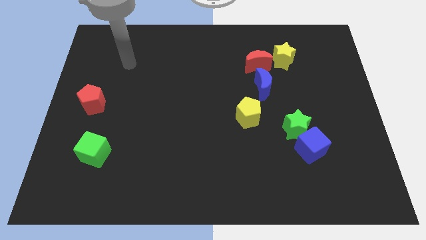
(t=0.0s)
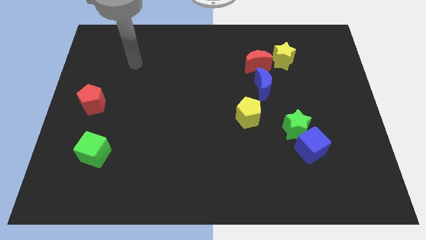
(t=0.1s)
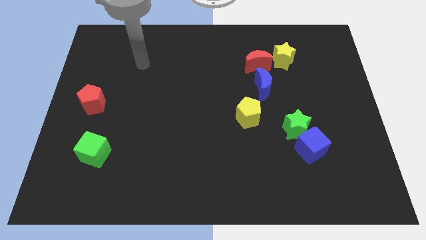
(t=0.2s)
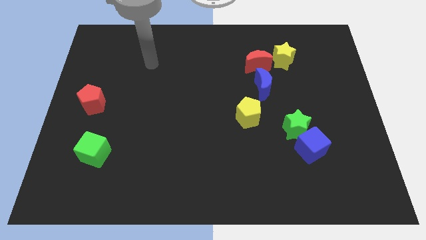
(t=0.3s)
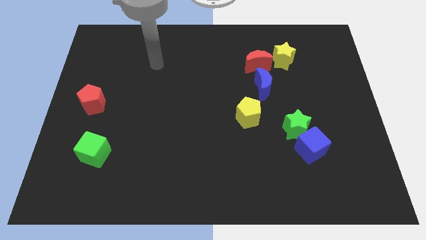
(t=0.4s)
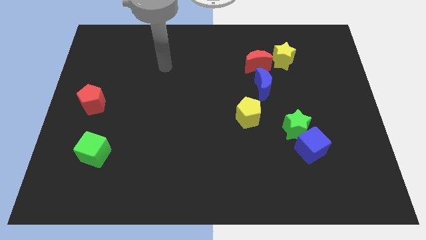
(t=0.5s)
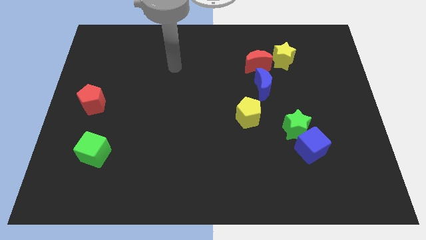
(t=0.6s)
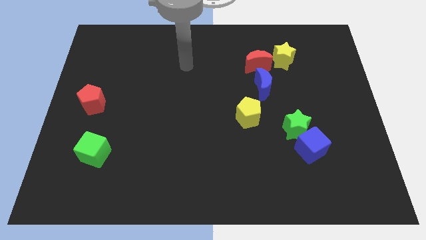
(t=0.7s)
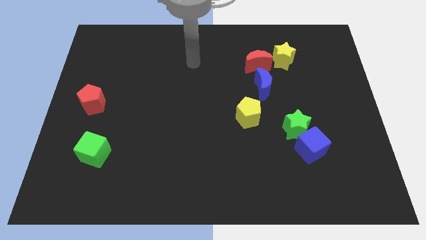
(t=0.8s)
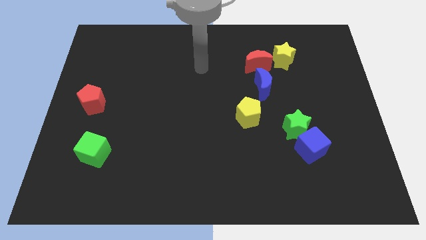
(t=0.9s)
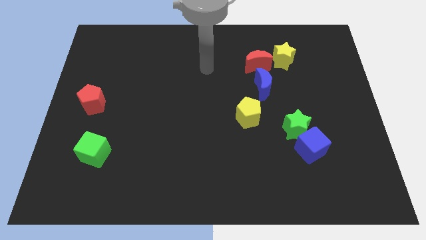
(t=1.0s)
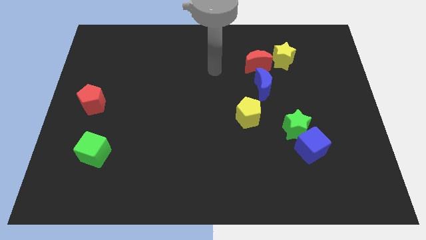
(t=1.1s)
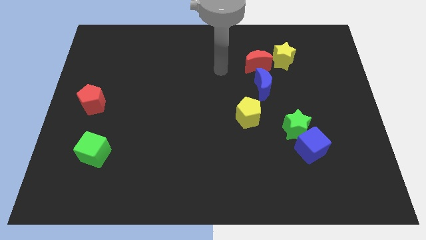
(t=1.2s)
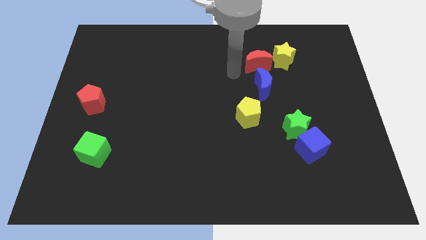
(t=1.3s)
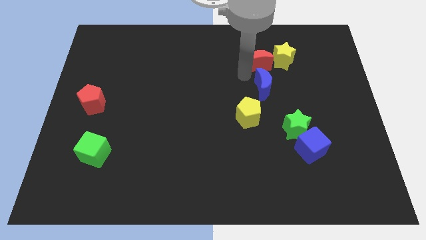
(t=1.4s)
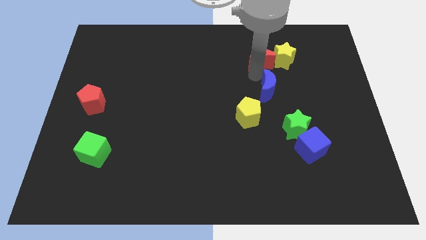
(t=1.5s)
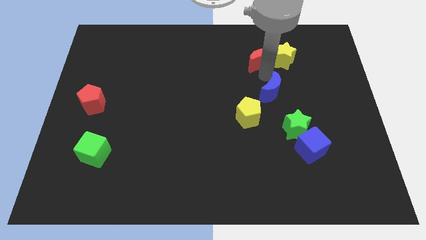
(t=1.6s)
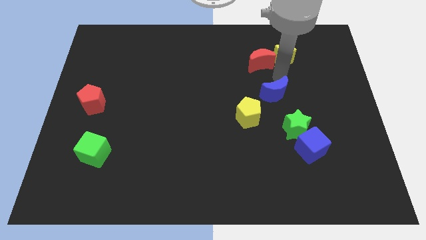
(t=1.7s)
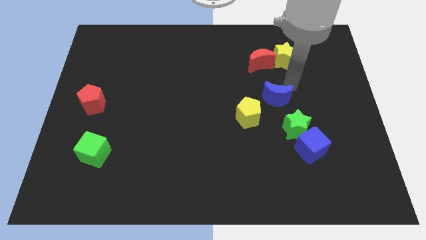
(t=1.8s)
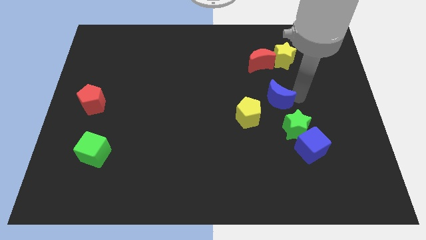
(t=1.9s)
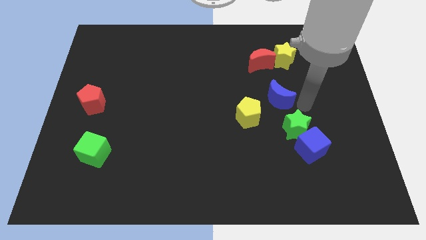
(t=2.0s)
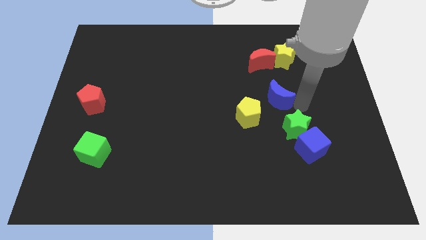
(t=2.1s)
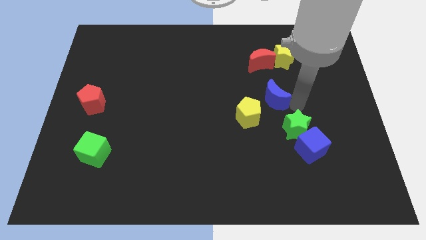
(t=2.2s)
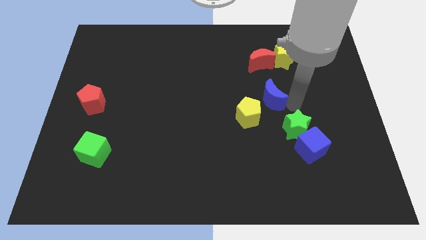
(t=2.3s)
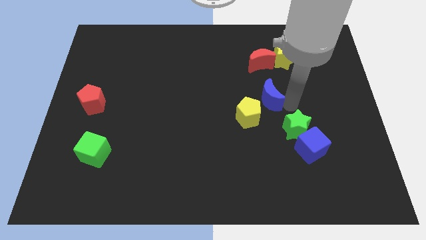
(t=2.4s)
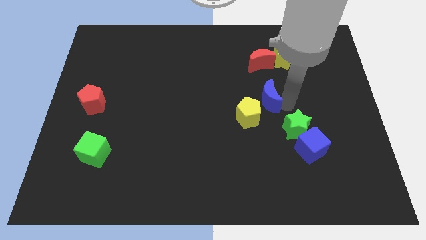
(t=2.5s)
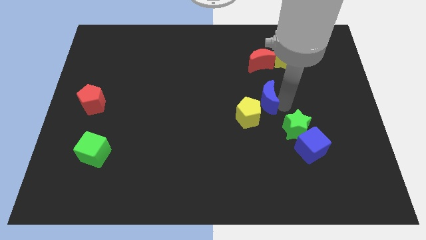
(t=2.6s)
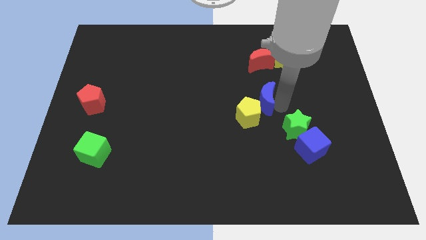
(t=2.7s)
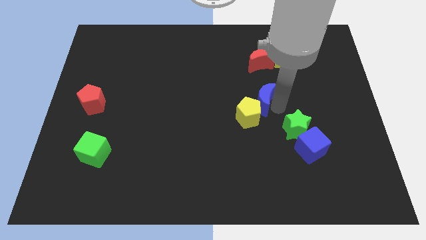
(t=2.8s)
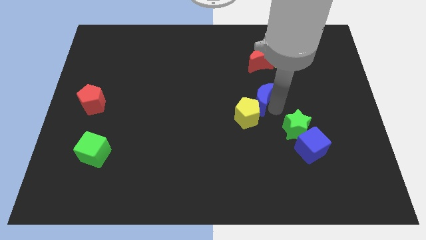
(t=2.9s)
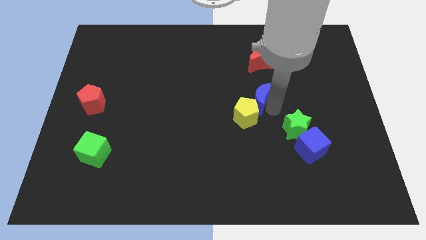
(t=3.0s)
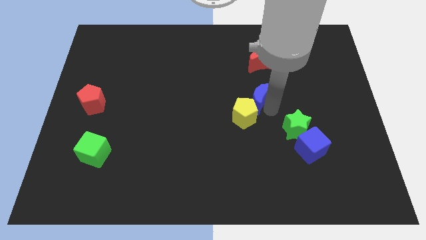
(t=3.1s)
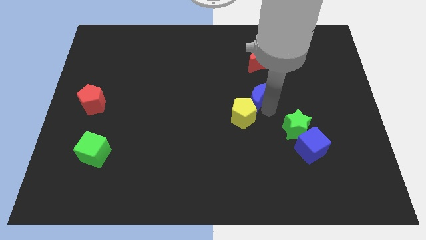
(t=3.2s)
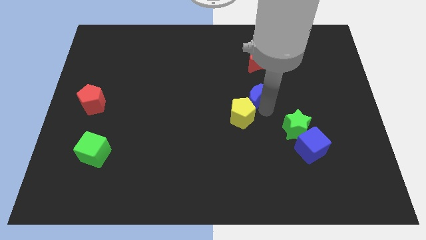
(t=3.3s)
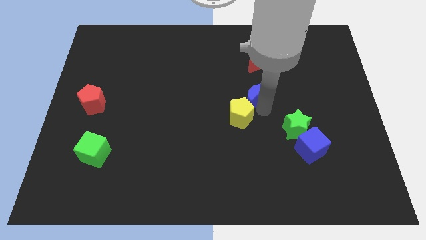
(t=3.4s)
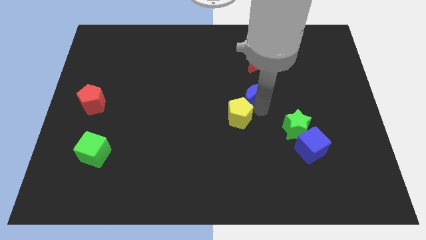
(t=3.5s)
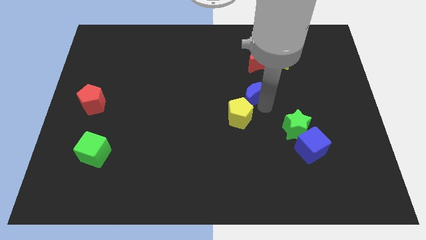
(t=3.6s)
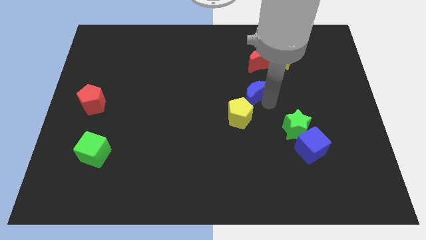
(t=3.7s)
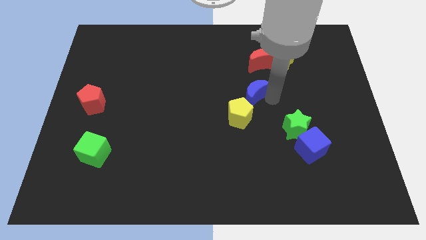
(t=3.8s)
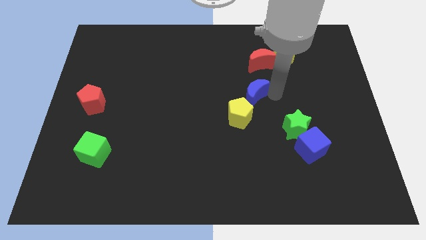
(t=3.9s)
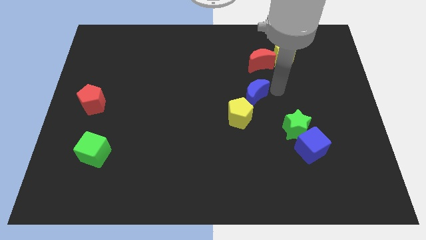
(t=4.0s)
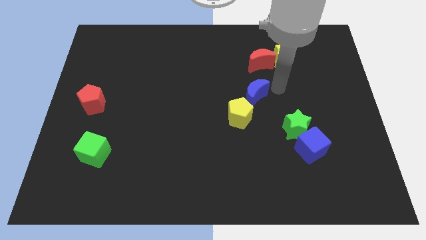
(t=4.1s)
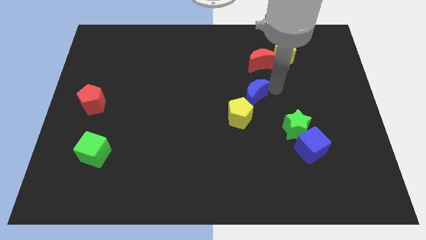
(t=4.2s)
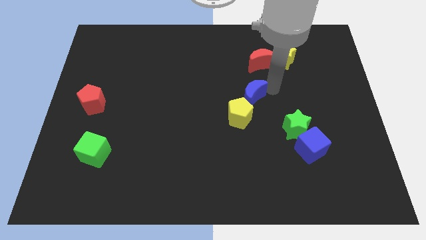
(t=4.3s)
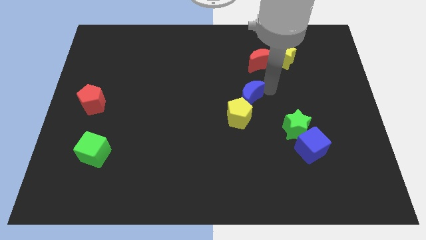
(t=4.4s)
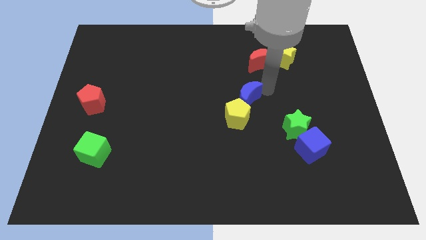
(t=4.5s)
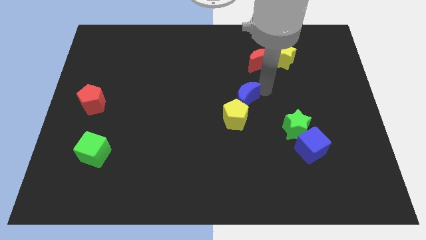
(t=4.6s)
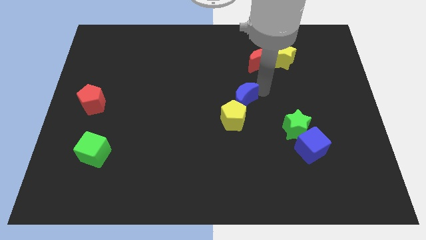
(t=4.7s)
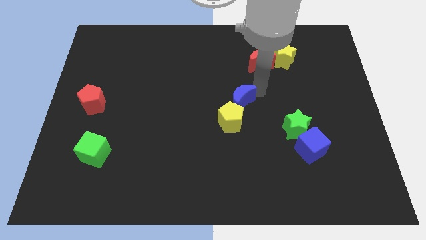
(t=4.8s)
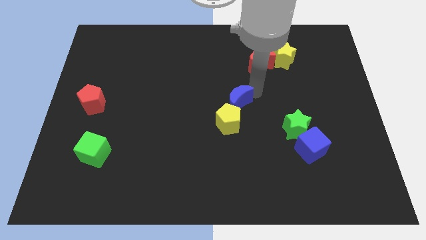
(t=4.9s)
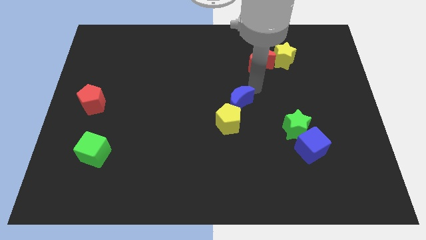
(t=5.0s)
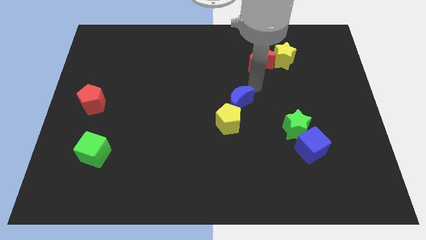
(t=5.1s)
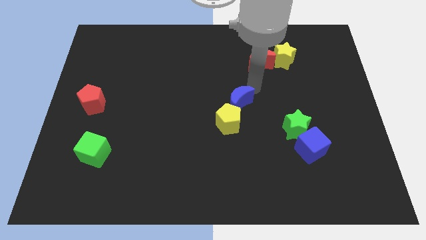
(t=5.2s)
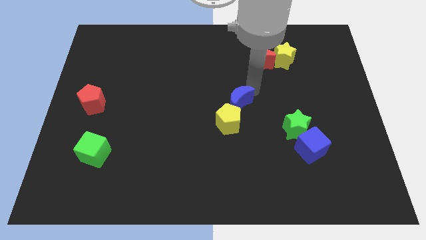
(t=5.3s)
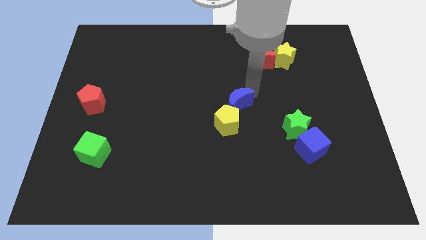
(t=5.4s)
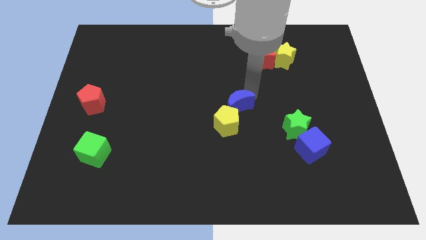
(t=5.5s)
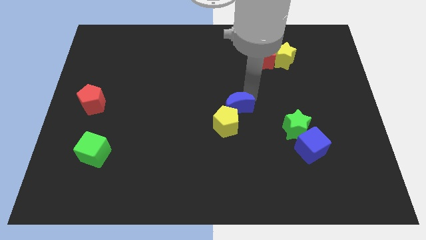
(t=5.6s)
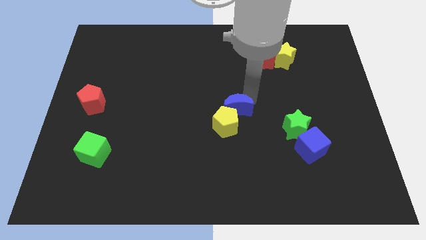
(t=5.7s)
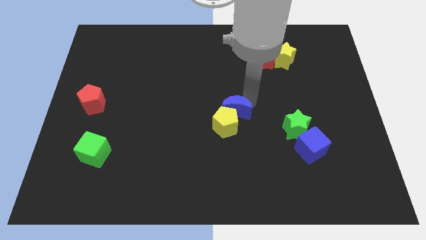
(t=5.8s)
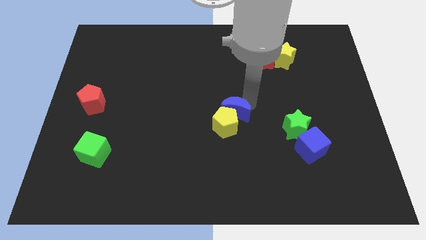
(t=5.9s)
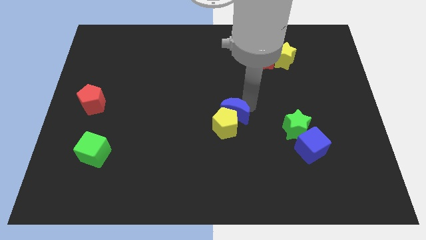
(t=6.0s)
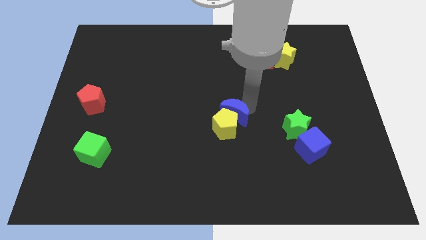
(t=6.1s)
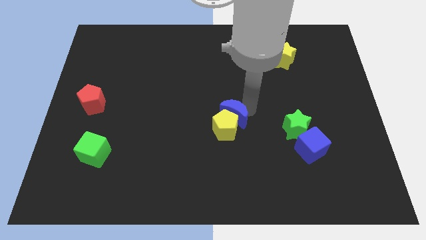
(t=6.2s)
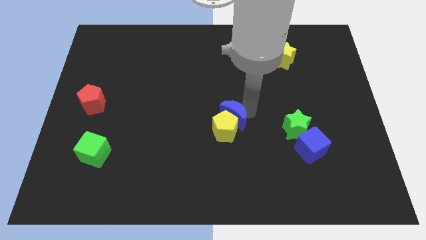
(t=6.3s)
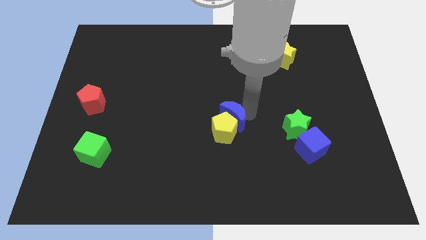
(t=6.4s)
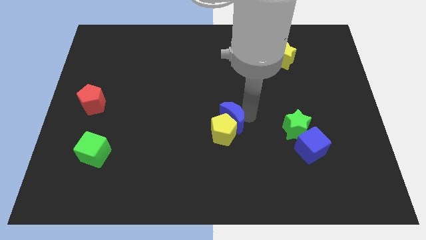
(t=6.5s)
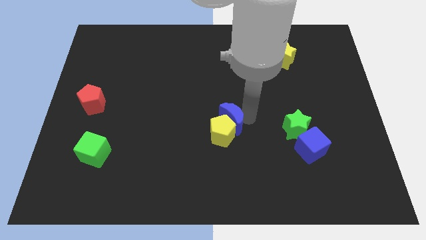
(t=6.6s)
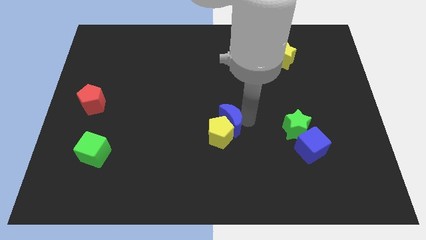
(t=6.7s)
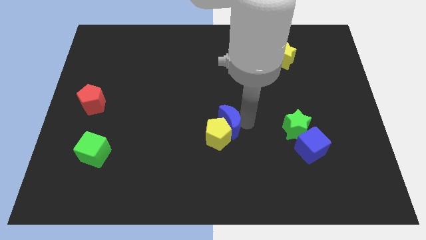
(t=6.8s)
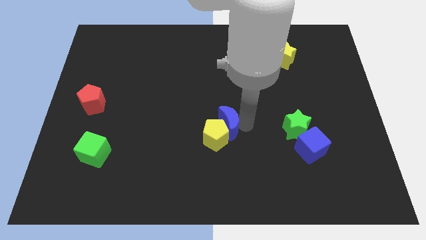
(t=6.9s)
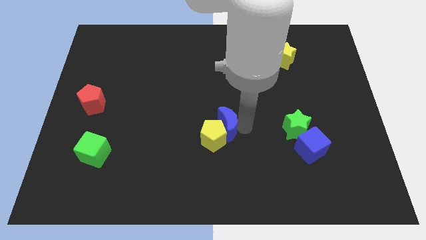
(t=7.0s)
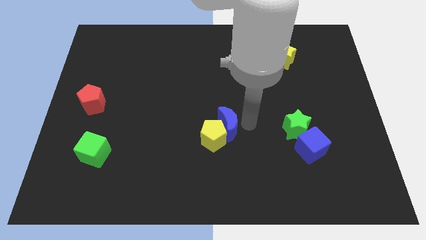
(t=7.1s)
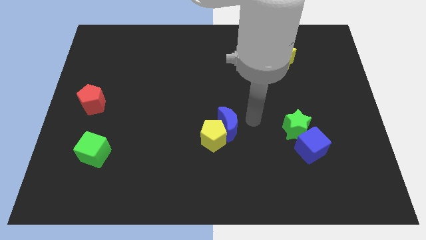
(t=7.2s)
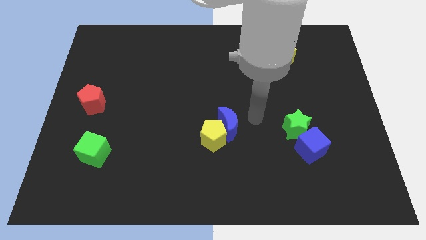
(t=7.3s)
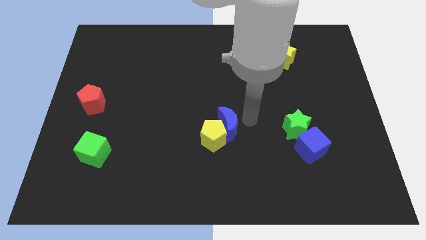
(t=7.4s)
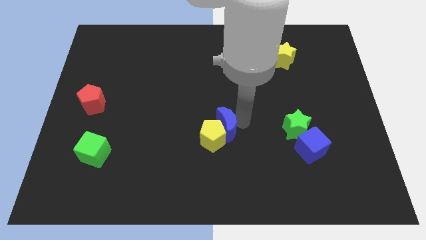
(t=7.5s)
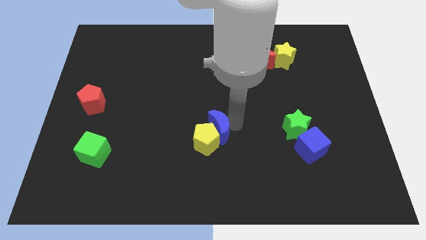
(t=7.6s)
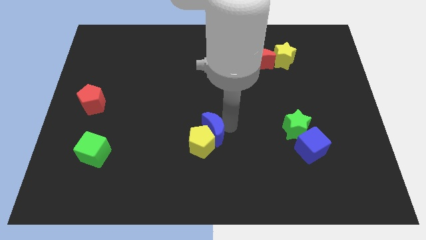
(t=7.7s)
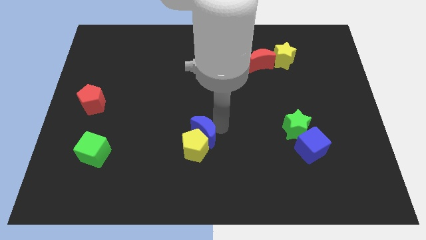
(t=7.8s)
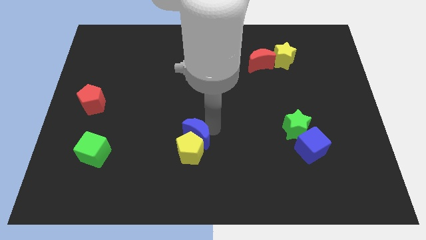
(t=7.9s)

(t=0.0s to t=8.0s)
move the blue moon downwards and then left

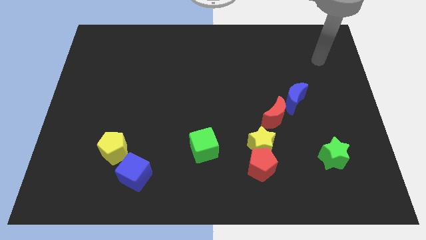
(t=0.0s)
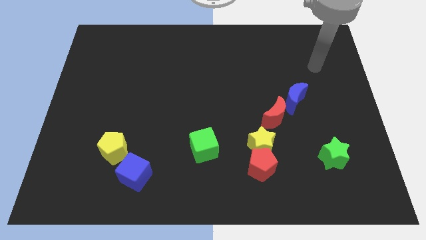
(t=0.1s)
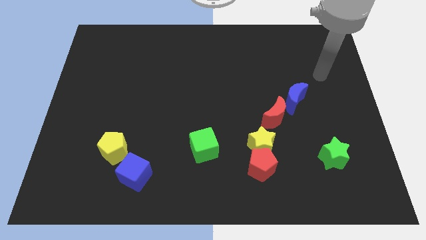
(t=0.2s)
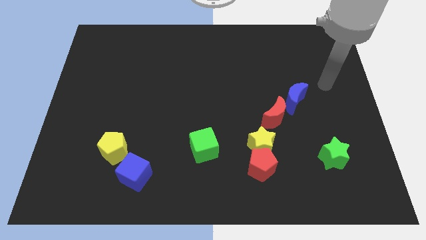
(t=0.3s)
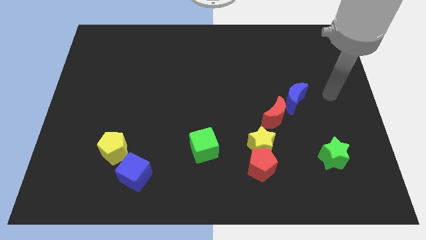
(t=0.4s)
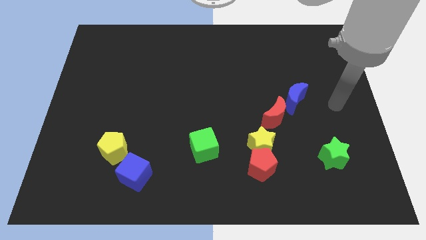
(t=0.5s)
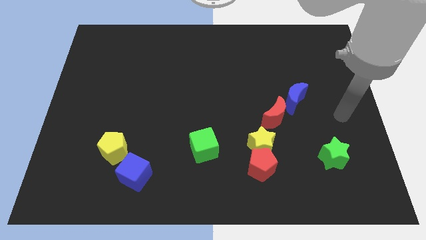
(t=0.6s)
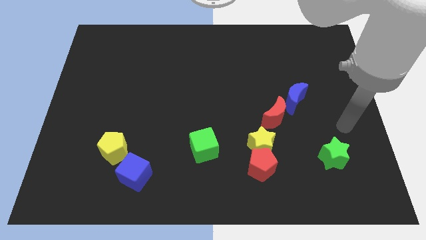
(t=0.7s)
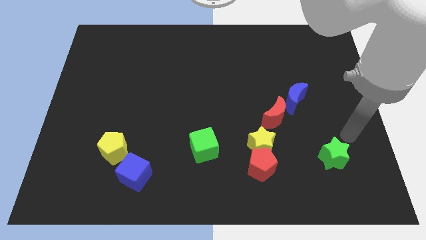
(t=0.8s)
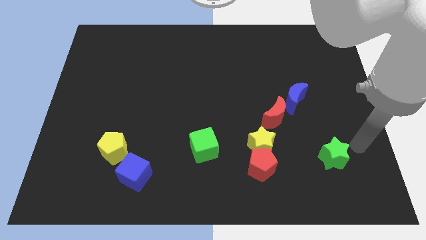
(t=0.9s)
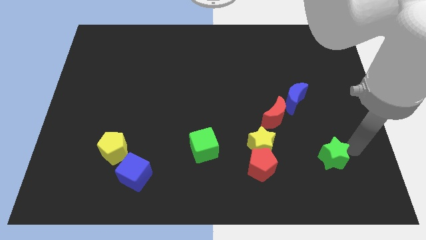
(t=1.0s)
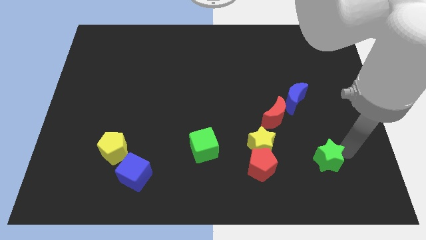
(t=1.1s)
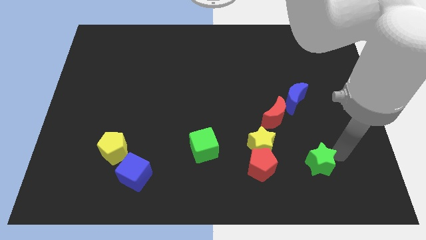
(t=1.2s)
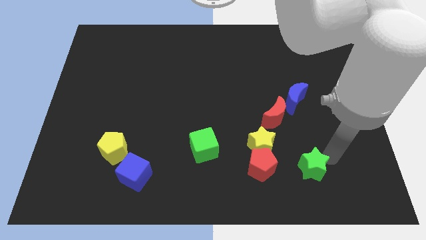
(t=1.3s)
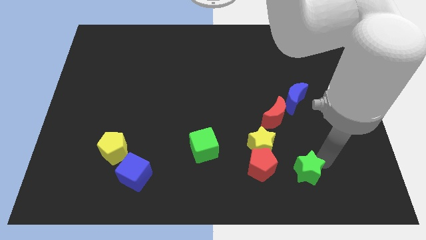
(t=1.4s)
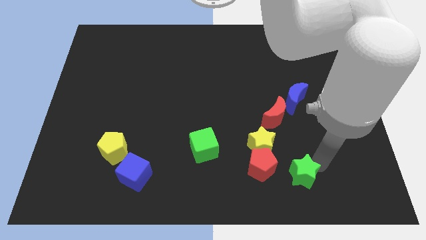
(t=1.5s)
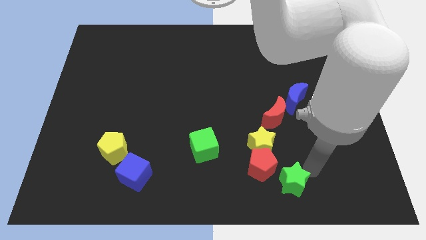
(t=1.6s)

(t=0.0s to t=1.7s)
move the green star somewhat left
